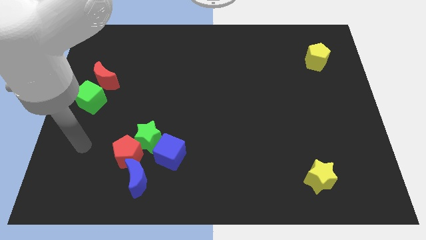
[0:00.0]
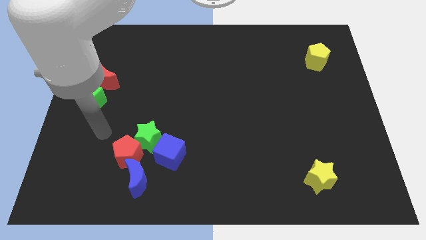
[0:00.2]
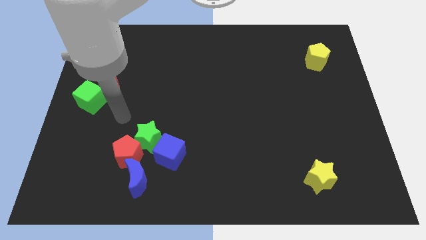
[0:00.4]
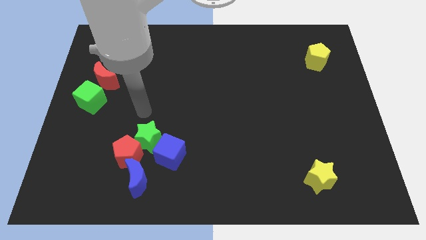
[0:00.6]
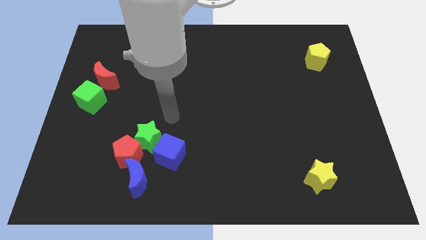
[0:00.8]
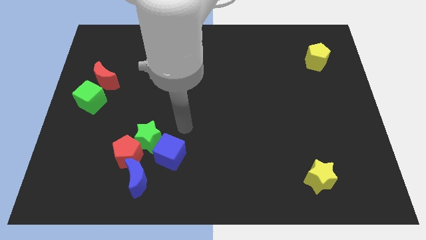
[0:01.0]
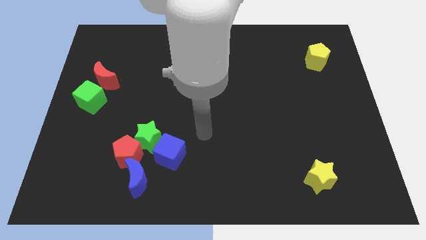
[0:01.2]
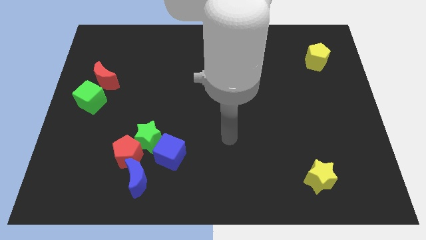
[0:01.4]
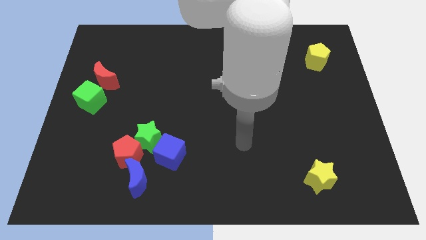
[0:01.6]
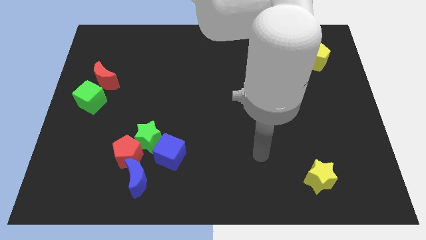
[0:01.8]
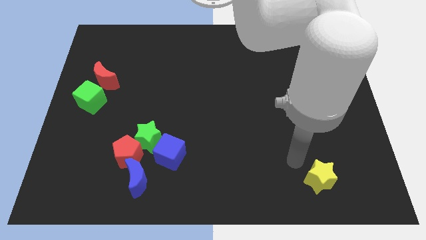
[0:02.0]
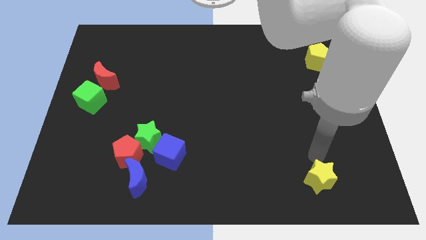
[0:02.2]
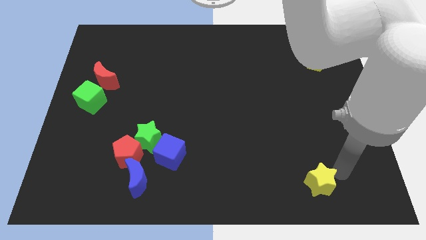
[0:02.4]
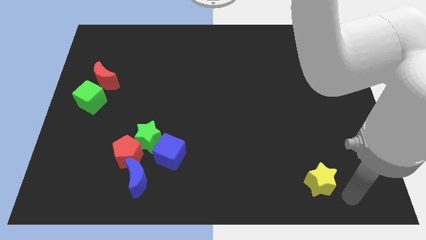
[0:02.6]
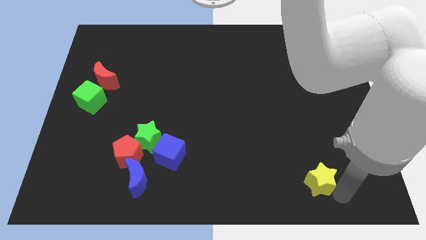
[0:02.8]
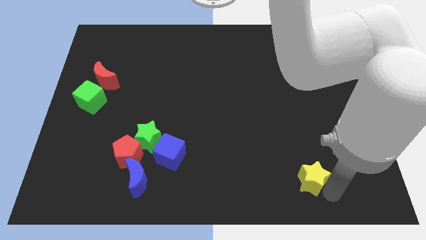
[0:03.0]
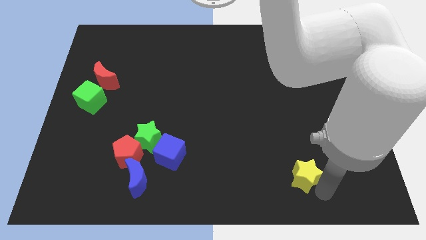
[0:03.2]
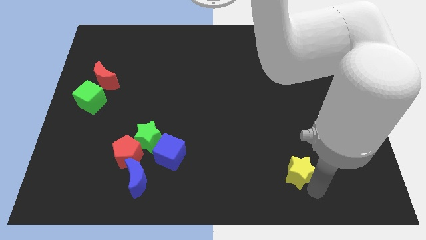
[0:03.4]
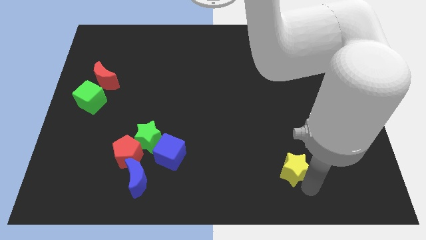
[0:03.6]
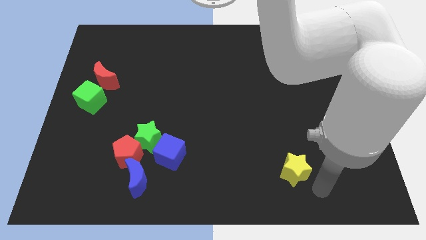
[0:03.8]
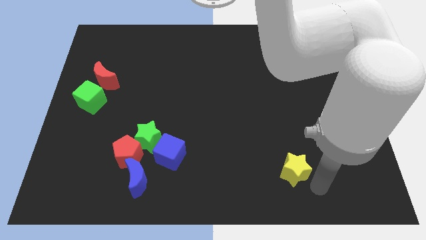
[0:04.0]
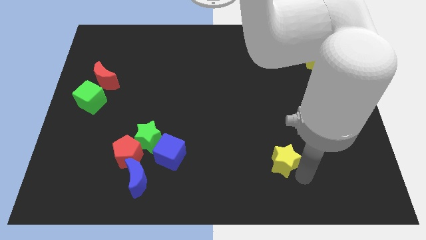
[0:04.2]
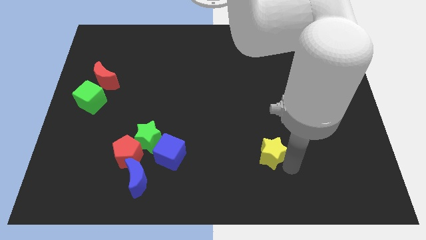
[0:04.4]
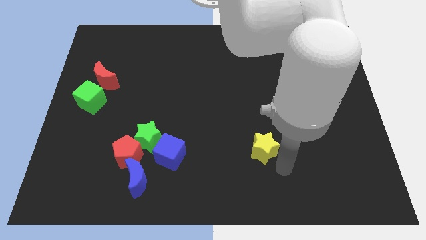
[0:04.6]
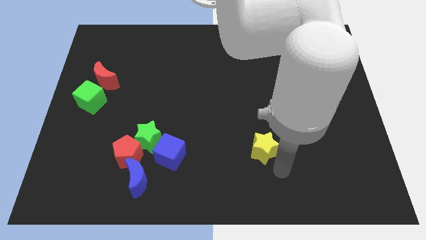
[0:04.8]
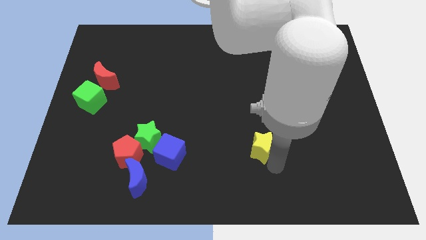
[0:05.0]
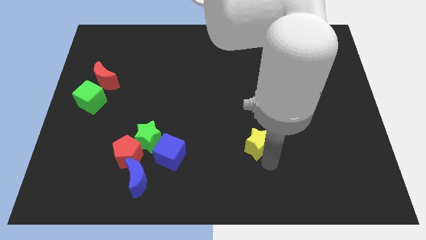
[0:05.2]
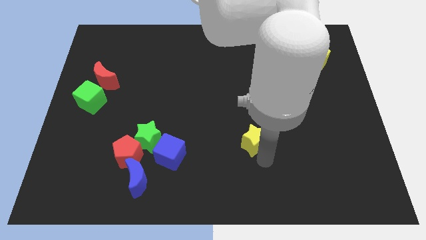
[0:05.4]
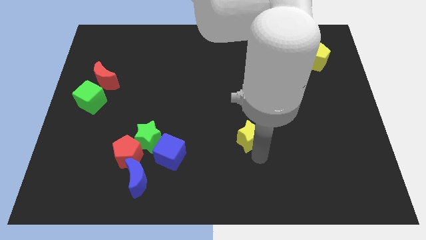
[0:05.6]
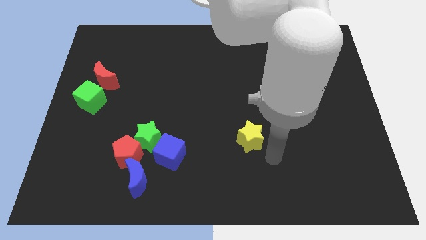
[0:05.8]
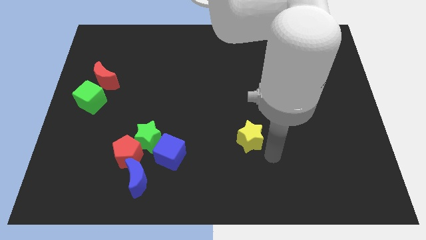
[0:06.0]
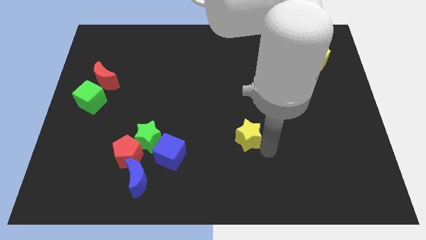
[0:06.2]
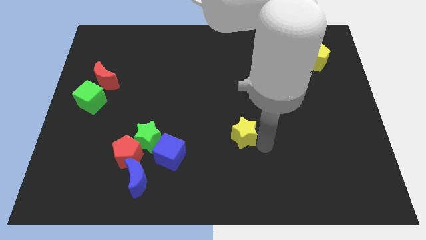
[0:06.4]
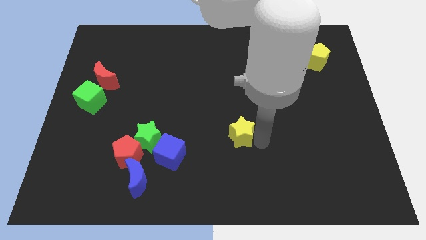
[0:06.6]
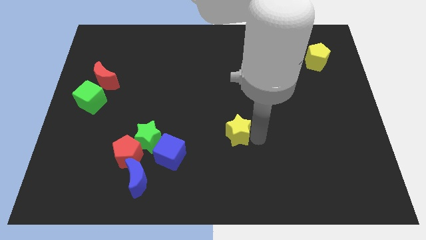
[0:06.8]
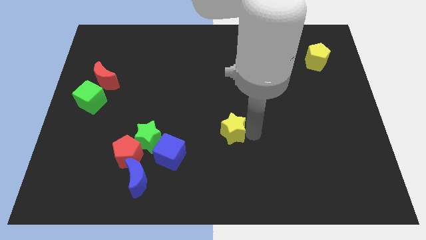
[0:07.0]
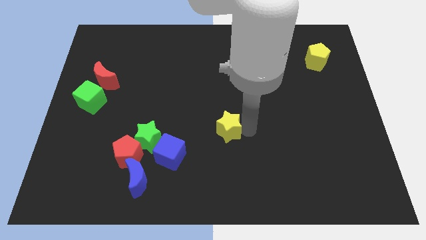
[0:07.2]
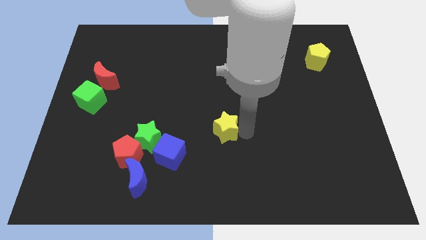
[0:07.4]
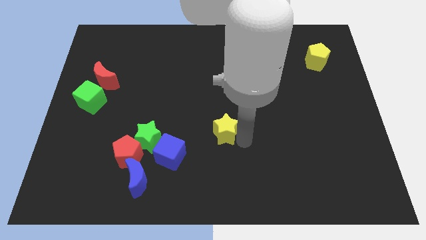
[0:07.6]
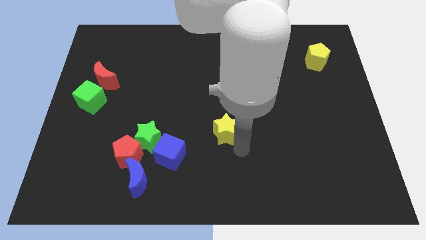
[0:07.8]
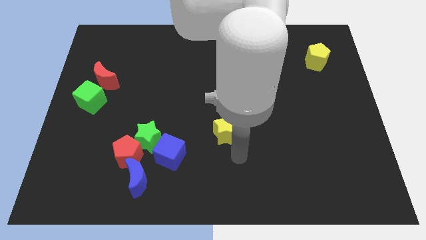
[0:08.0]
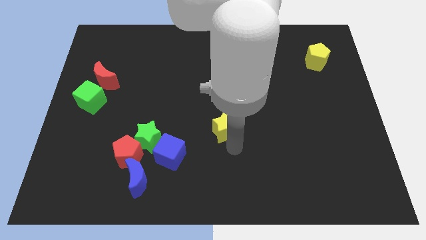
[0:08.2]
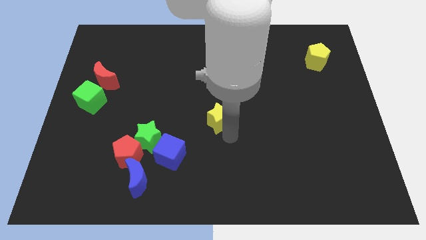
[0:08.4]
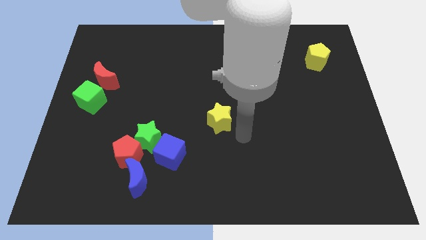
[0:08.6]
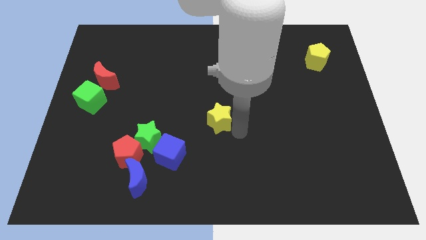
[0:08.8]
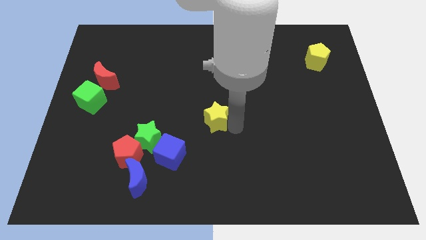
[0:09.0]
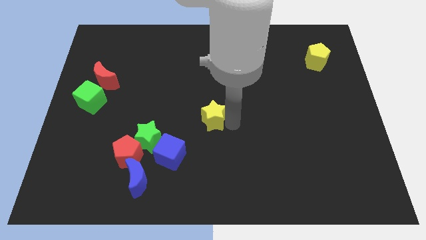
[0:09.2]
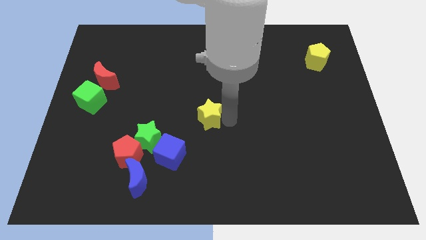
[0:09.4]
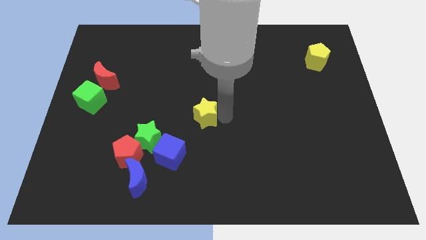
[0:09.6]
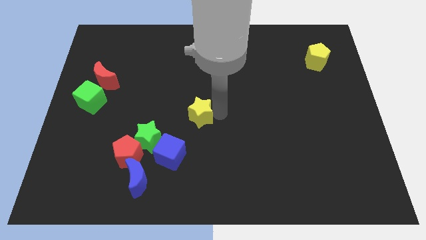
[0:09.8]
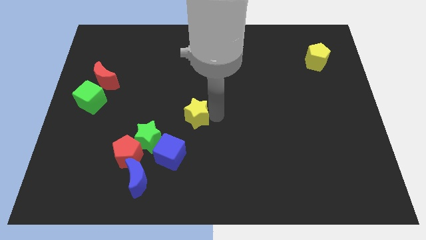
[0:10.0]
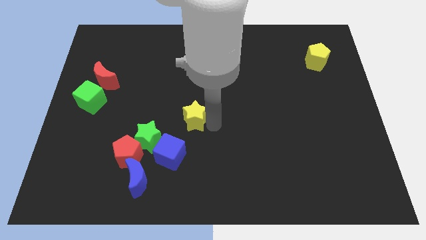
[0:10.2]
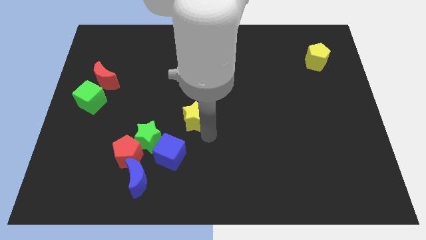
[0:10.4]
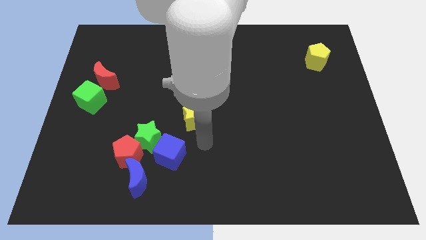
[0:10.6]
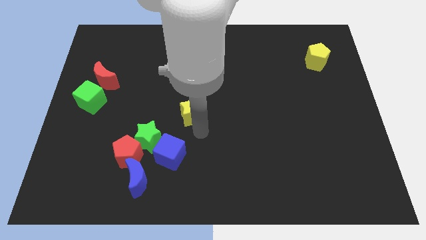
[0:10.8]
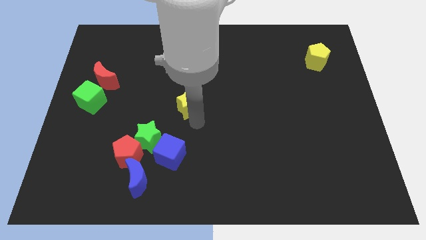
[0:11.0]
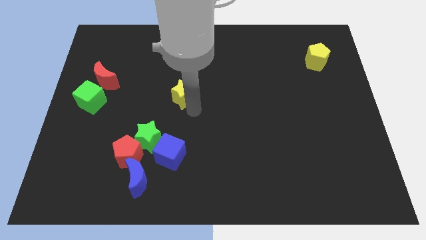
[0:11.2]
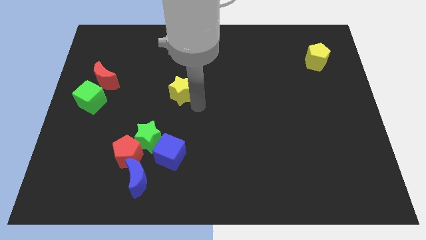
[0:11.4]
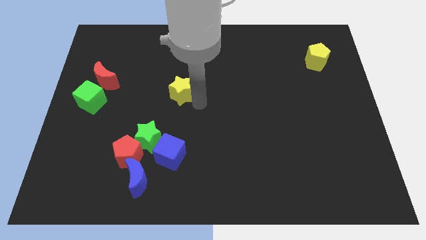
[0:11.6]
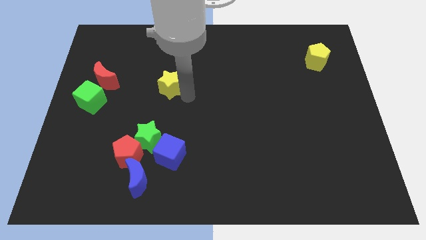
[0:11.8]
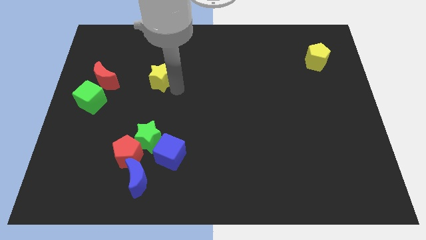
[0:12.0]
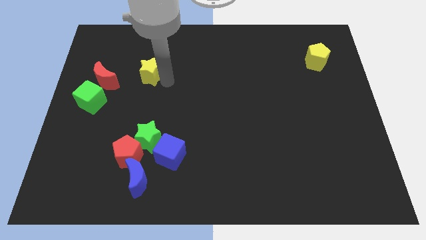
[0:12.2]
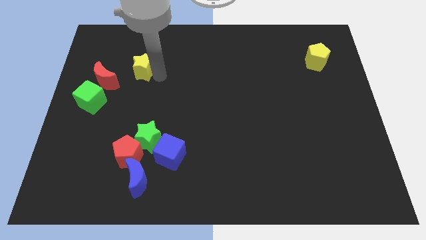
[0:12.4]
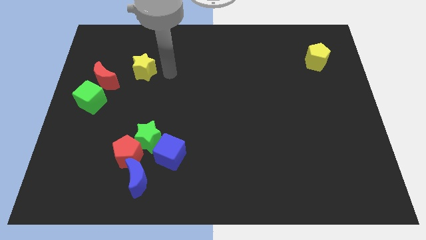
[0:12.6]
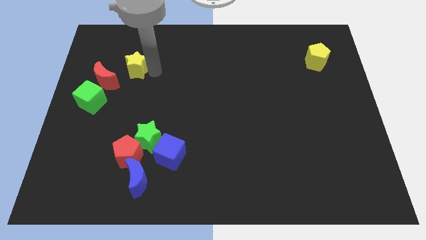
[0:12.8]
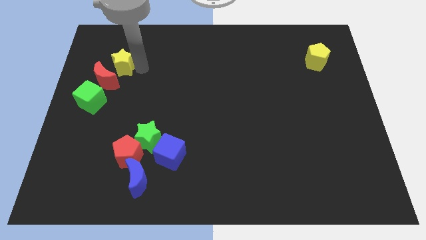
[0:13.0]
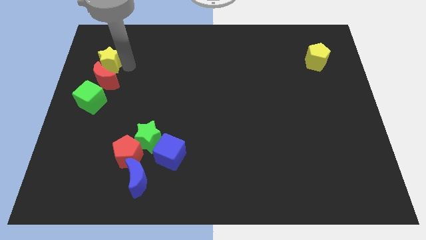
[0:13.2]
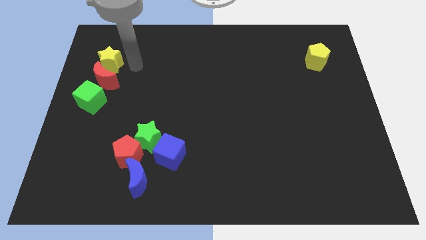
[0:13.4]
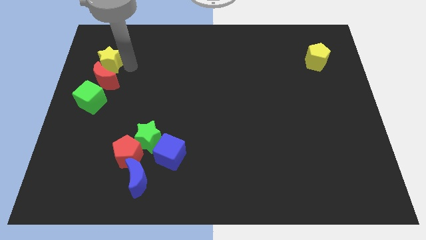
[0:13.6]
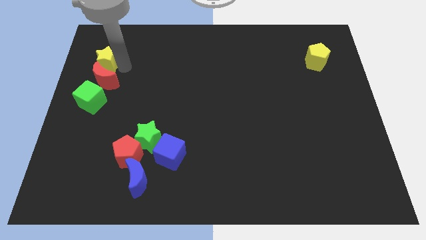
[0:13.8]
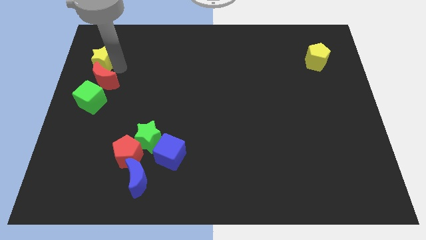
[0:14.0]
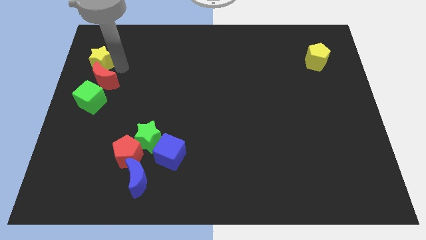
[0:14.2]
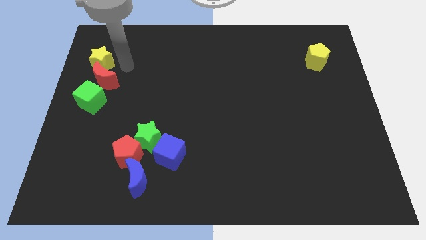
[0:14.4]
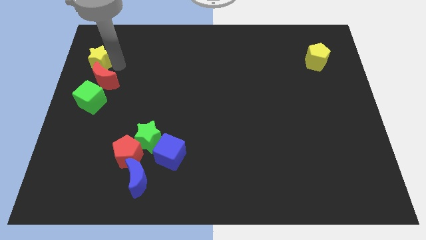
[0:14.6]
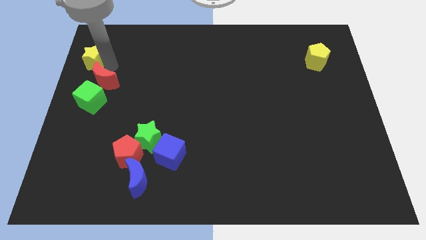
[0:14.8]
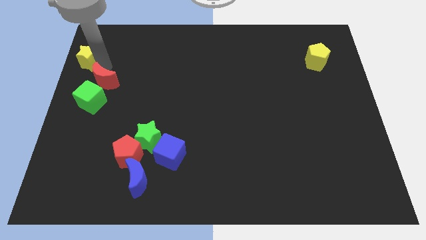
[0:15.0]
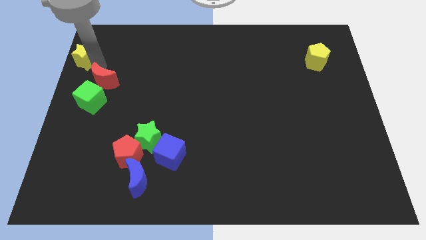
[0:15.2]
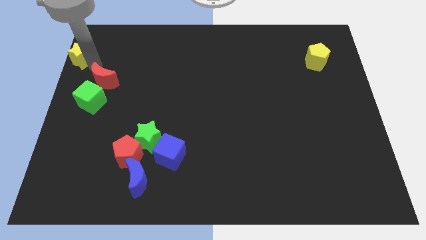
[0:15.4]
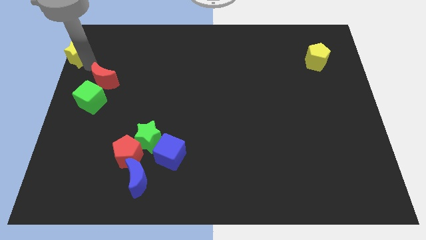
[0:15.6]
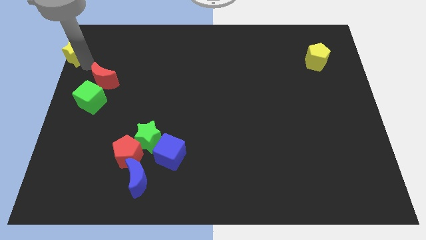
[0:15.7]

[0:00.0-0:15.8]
push the yellow star to the upper left corner
